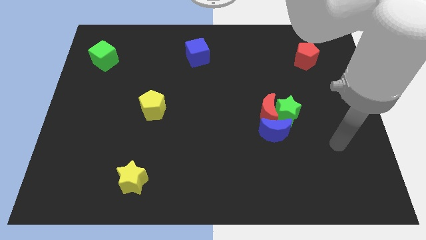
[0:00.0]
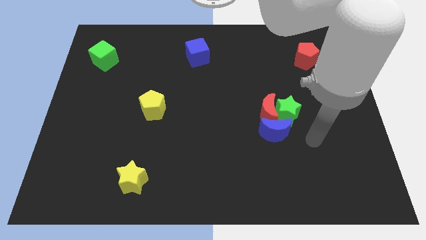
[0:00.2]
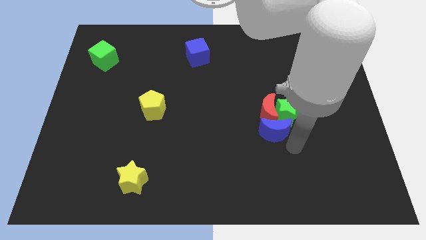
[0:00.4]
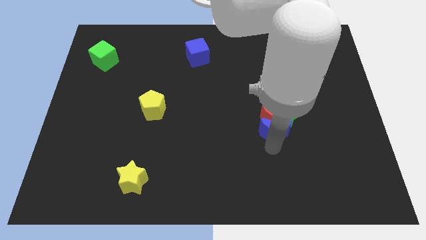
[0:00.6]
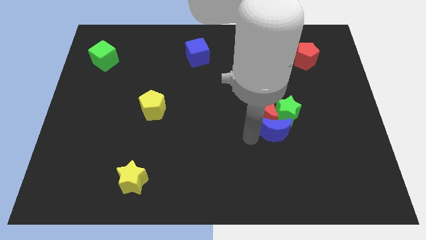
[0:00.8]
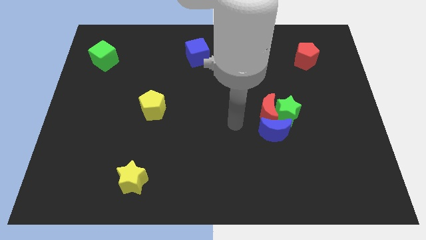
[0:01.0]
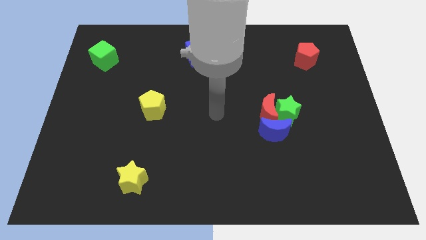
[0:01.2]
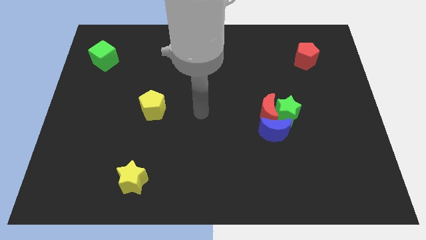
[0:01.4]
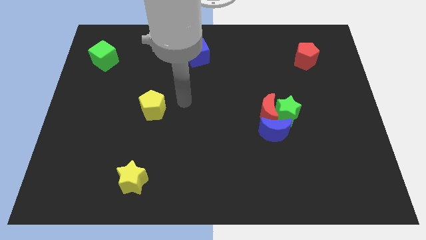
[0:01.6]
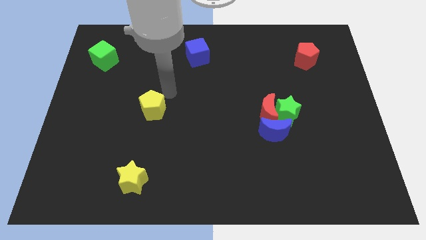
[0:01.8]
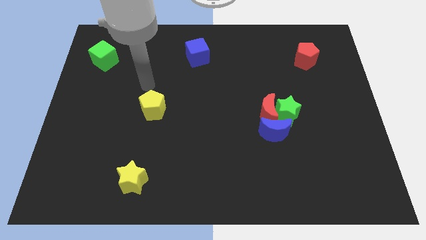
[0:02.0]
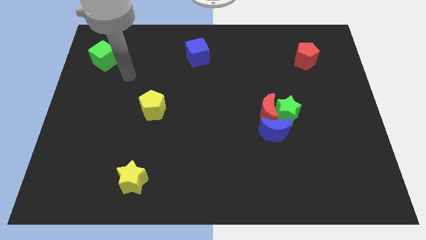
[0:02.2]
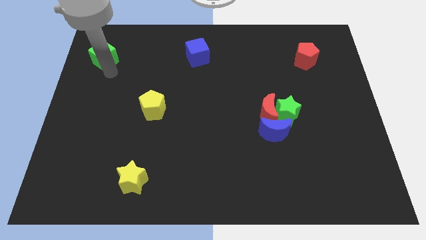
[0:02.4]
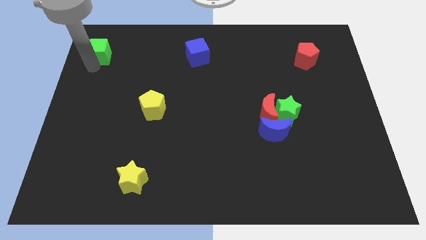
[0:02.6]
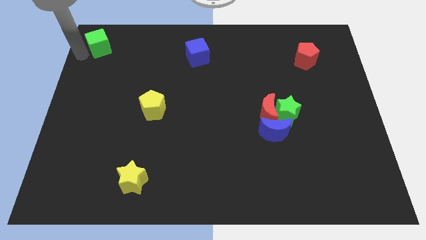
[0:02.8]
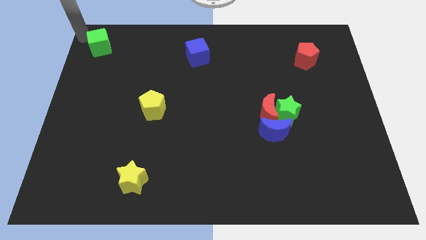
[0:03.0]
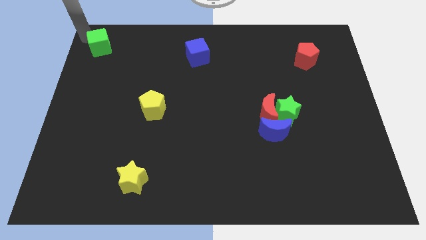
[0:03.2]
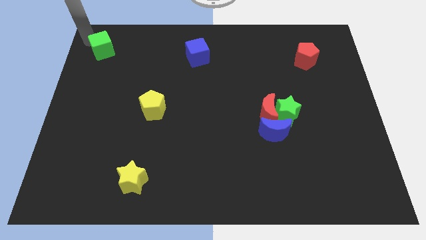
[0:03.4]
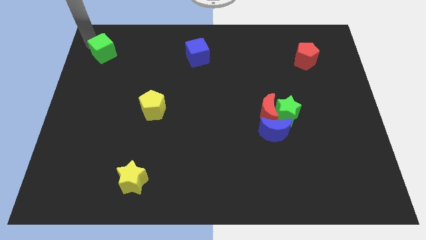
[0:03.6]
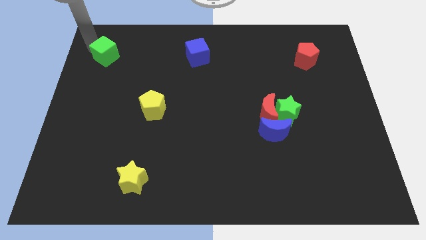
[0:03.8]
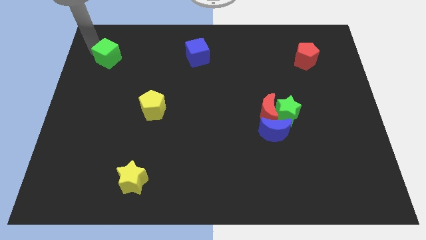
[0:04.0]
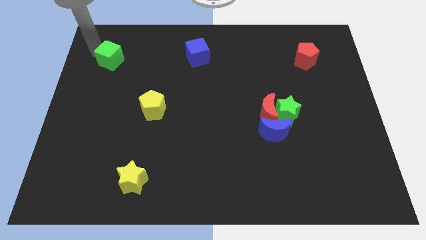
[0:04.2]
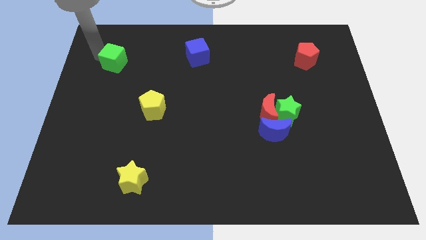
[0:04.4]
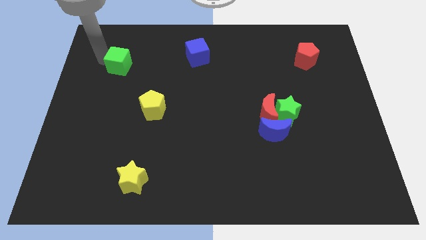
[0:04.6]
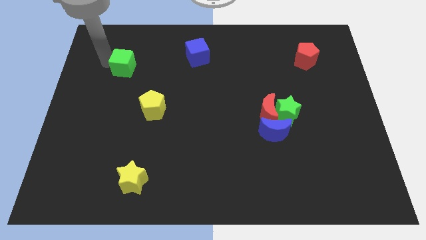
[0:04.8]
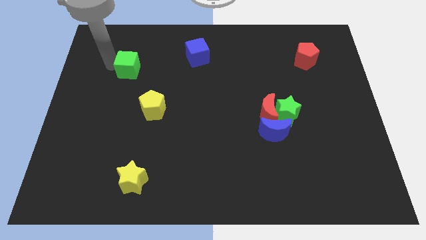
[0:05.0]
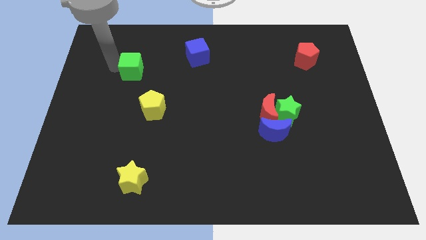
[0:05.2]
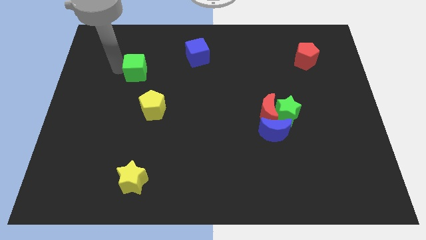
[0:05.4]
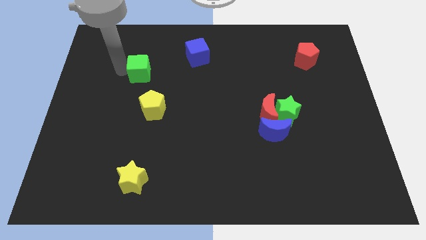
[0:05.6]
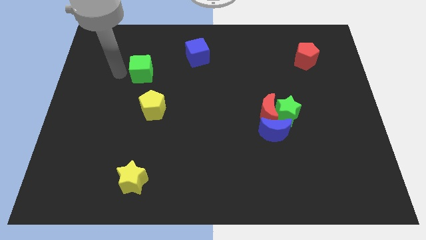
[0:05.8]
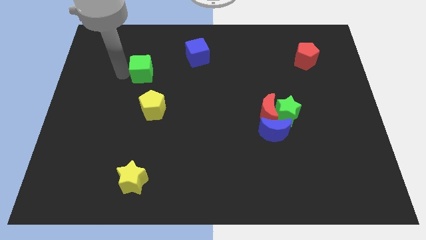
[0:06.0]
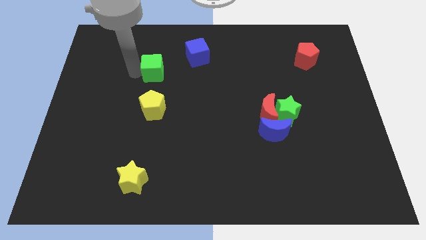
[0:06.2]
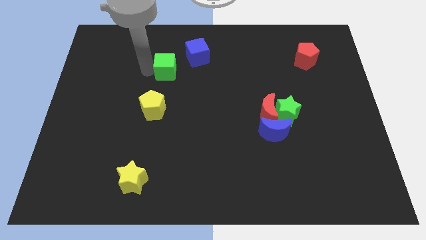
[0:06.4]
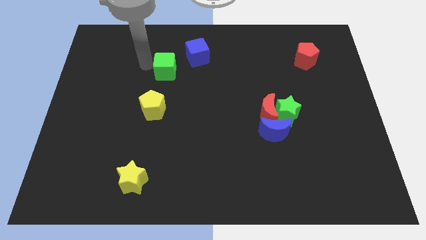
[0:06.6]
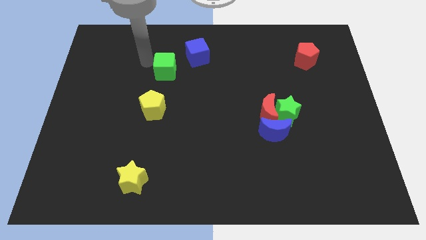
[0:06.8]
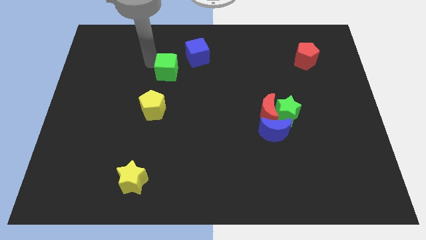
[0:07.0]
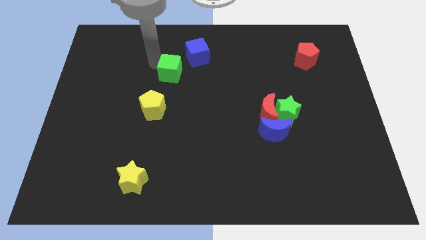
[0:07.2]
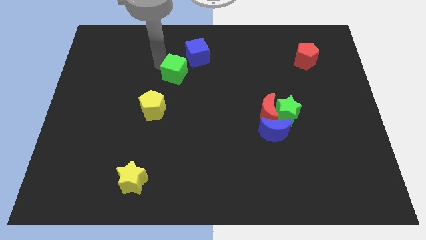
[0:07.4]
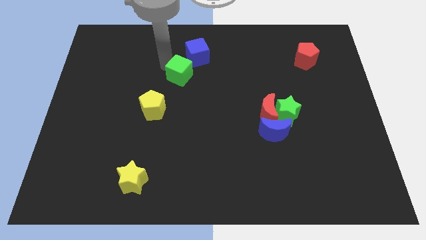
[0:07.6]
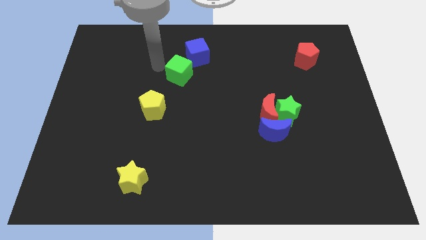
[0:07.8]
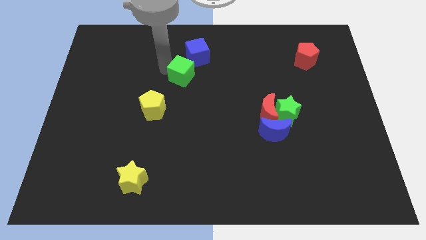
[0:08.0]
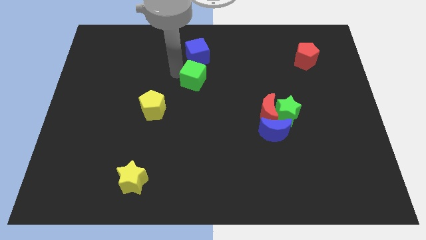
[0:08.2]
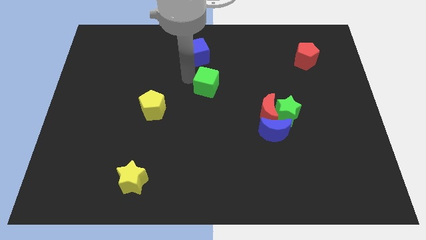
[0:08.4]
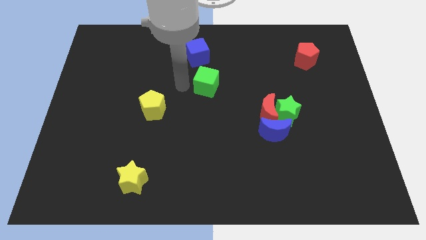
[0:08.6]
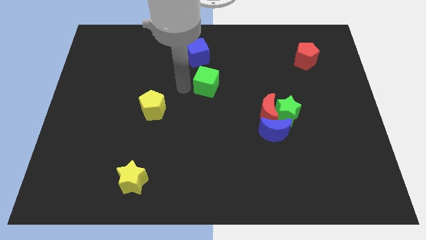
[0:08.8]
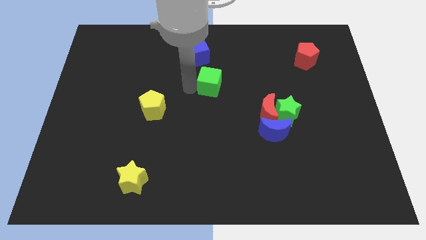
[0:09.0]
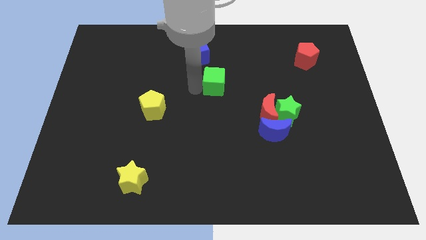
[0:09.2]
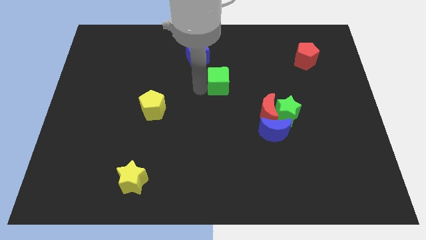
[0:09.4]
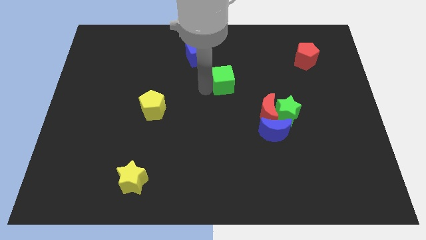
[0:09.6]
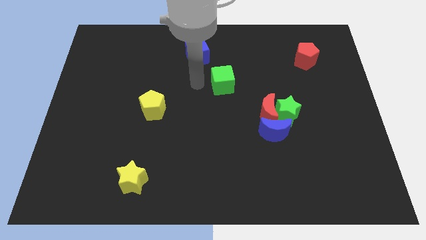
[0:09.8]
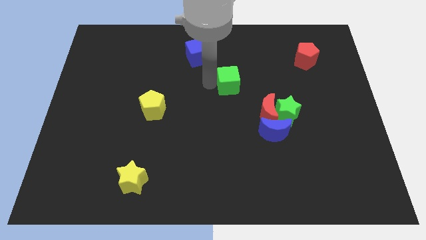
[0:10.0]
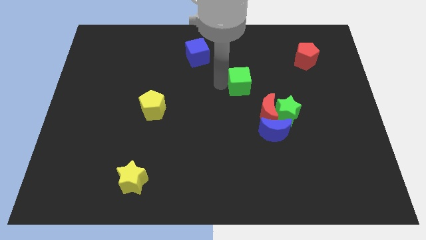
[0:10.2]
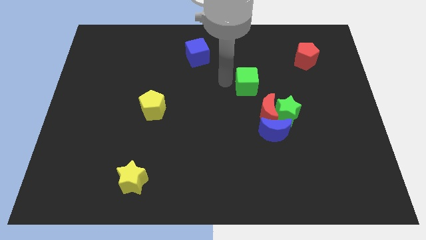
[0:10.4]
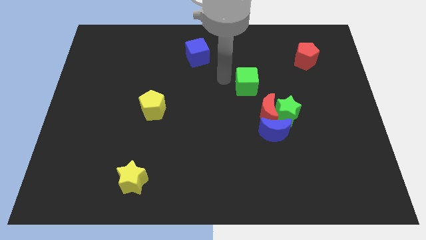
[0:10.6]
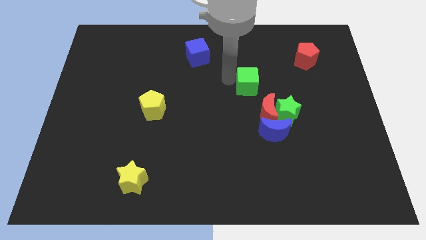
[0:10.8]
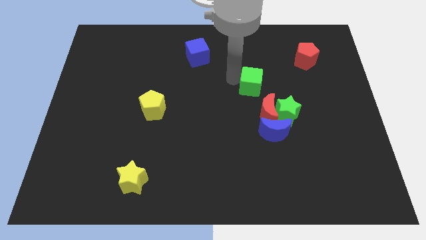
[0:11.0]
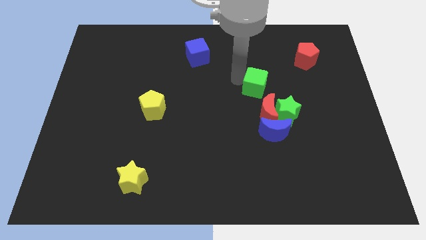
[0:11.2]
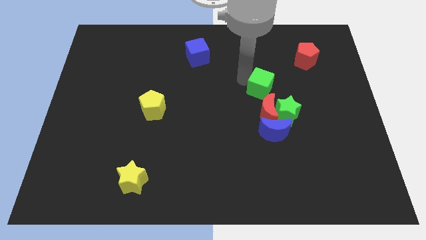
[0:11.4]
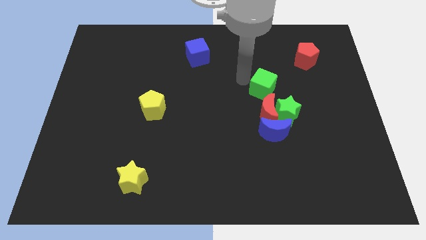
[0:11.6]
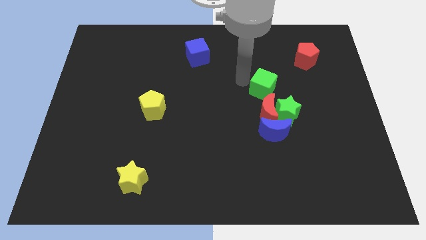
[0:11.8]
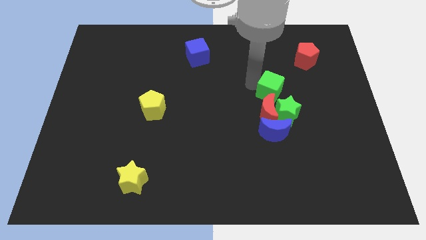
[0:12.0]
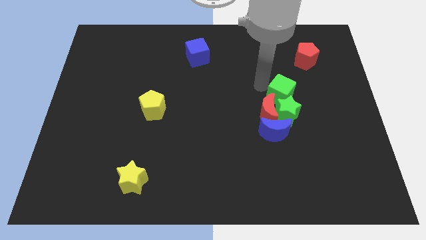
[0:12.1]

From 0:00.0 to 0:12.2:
push the green cube to the green star

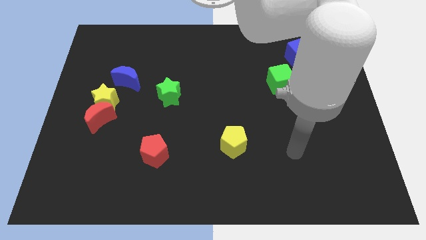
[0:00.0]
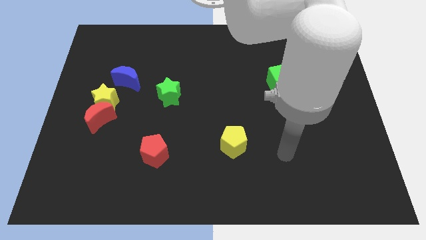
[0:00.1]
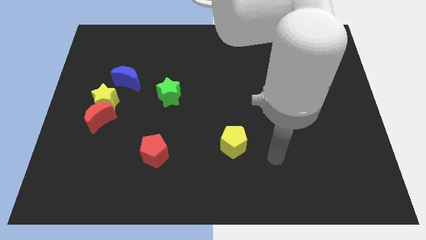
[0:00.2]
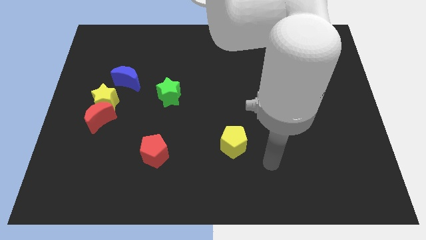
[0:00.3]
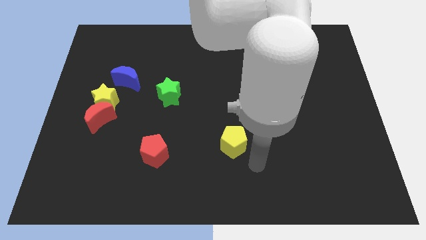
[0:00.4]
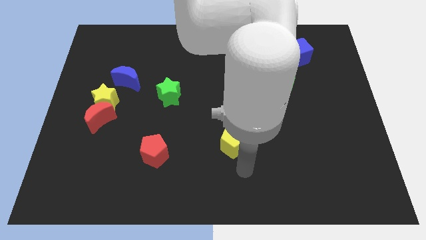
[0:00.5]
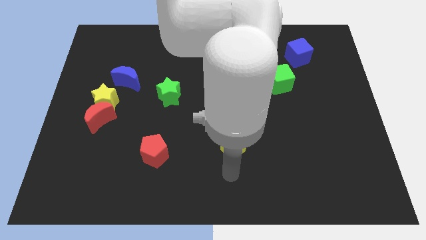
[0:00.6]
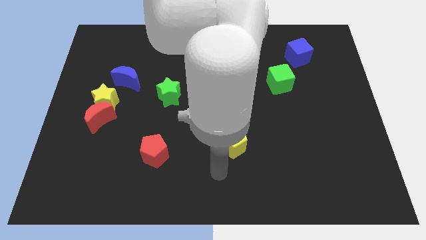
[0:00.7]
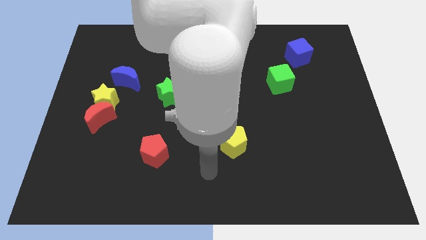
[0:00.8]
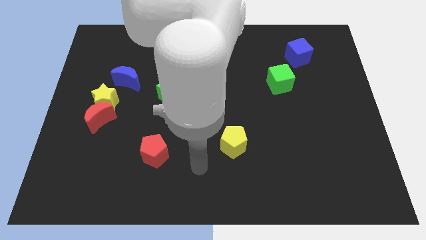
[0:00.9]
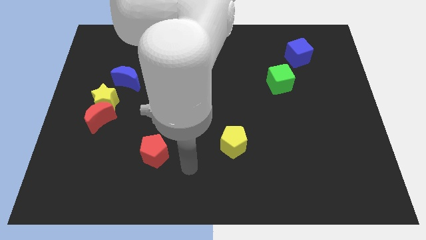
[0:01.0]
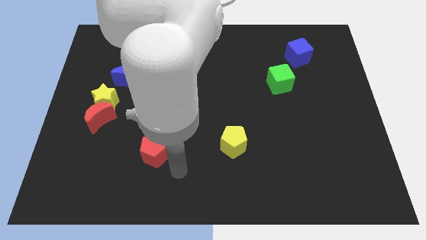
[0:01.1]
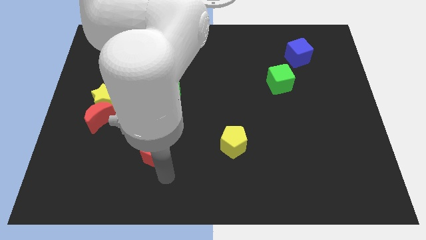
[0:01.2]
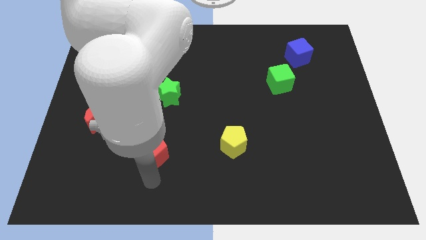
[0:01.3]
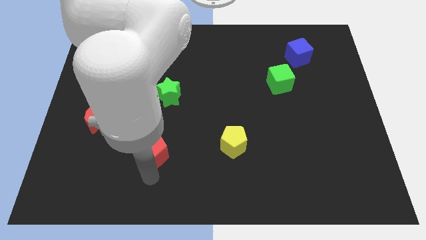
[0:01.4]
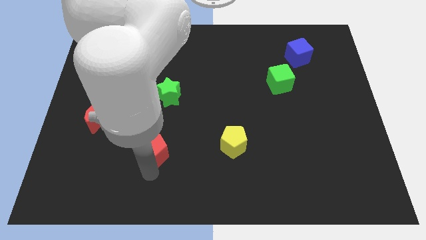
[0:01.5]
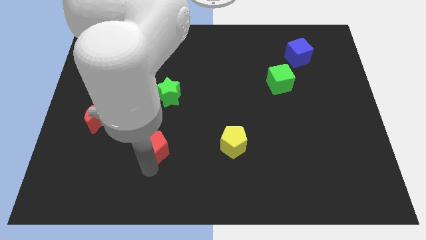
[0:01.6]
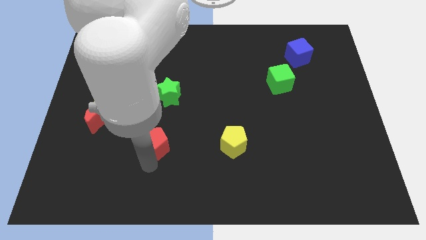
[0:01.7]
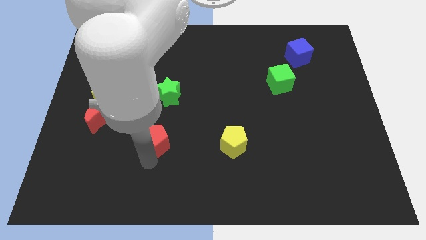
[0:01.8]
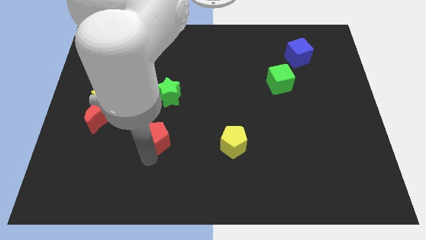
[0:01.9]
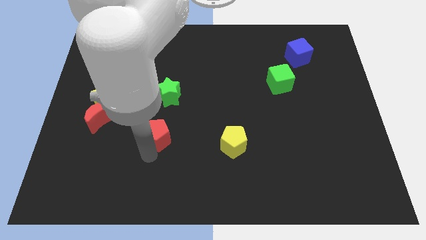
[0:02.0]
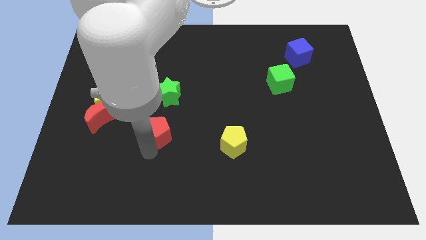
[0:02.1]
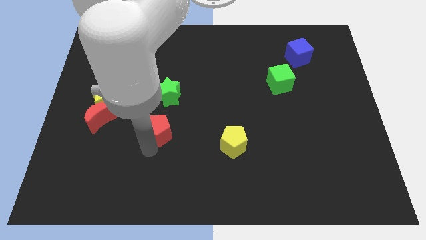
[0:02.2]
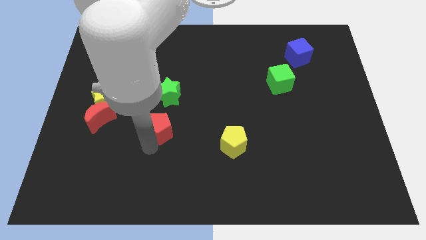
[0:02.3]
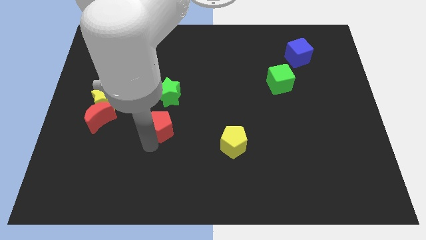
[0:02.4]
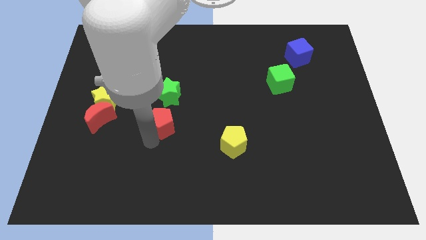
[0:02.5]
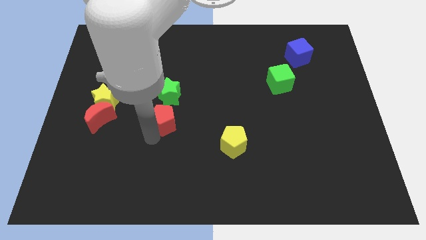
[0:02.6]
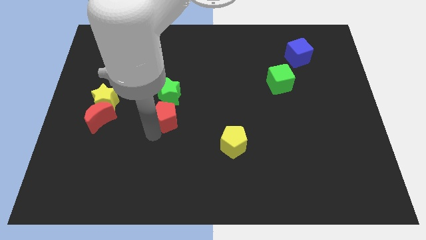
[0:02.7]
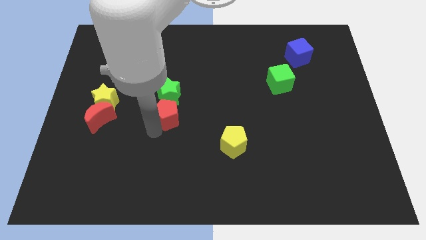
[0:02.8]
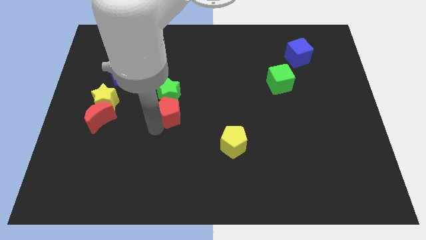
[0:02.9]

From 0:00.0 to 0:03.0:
push the red pentagon towards the green star
